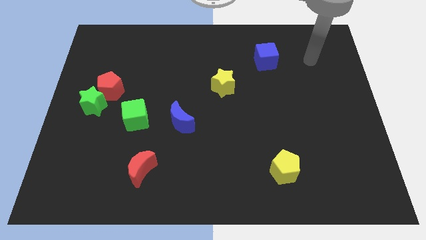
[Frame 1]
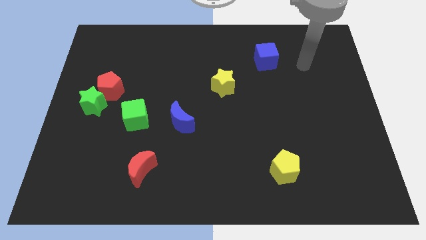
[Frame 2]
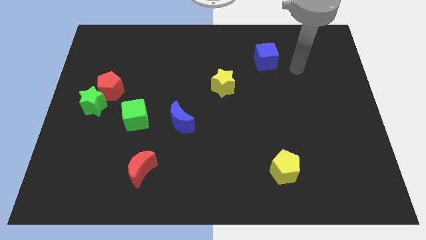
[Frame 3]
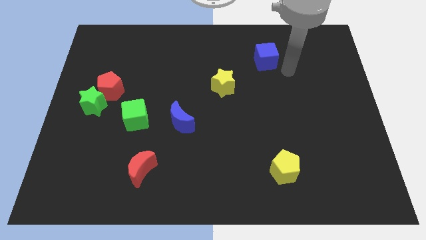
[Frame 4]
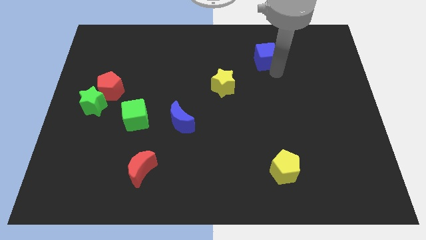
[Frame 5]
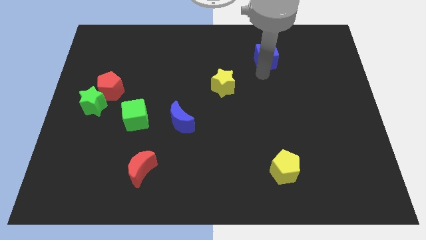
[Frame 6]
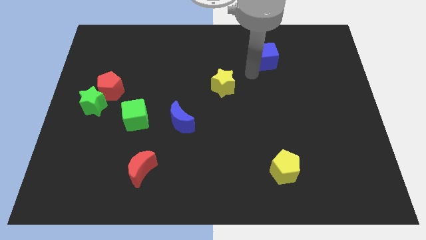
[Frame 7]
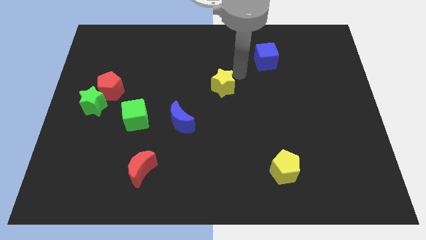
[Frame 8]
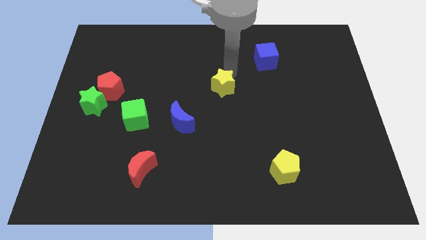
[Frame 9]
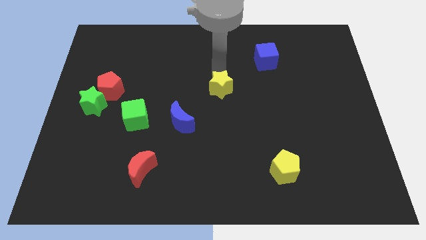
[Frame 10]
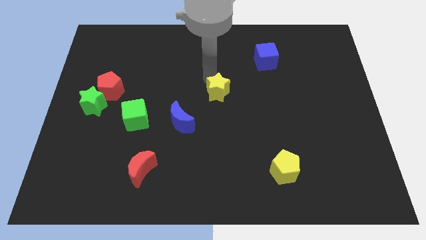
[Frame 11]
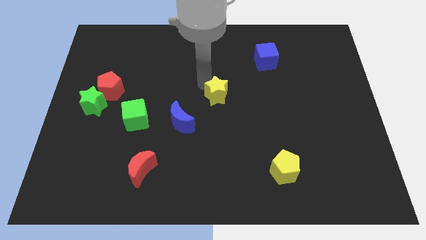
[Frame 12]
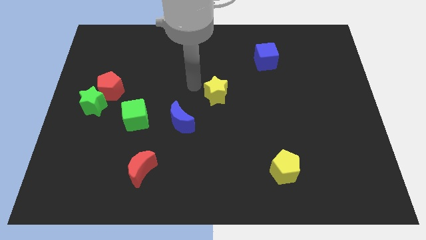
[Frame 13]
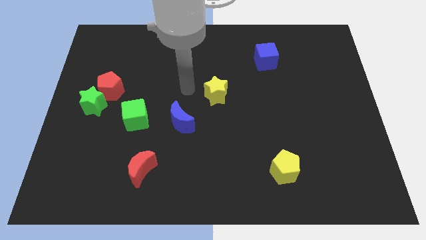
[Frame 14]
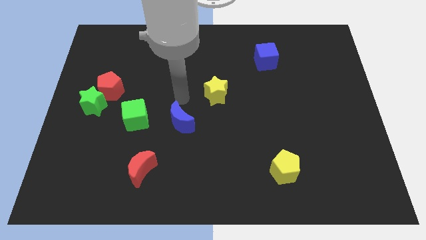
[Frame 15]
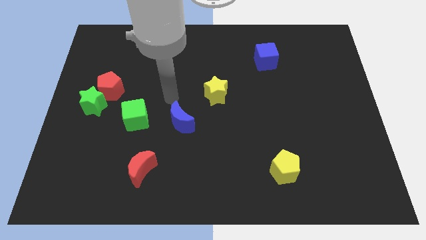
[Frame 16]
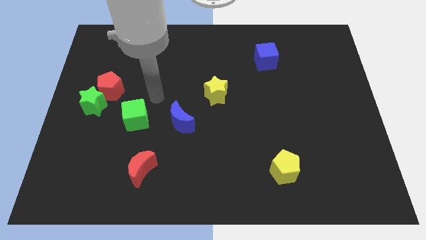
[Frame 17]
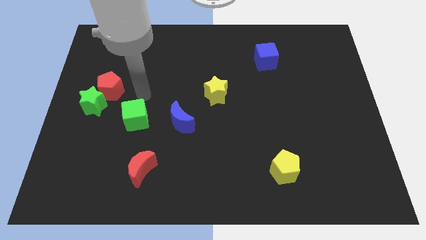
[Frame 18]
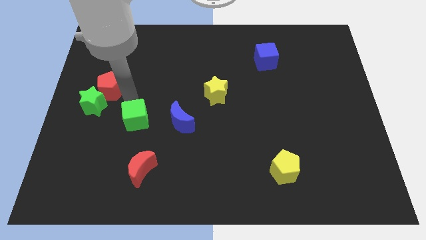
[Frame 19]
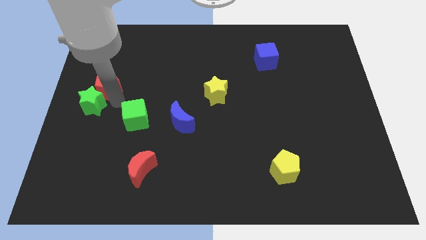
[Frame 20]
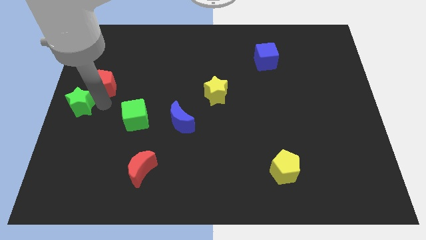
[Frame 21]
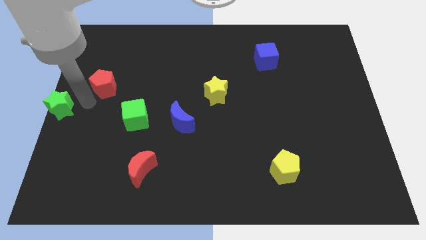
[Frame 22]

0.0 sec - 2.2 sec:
move the red pentagon away from the green star

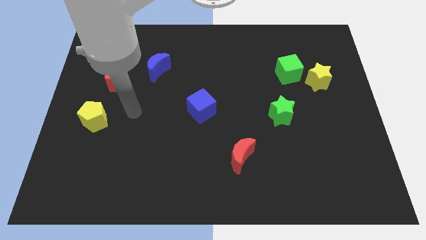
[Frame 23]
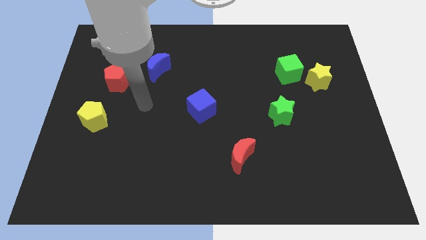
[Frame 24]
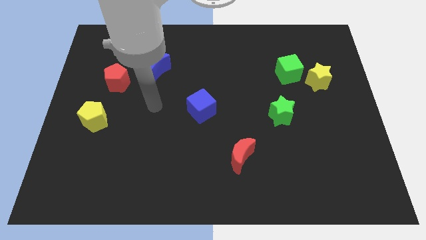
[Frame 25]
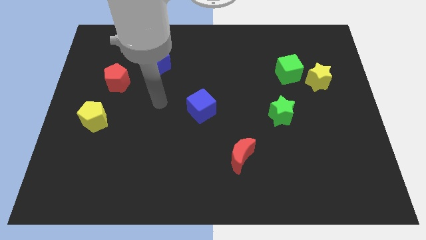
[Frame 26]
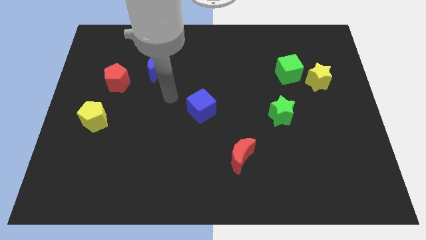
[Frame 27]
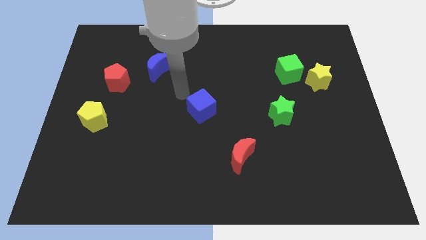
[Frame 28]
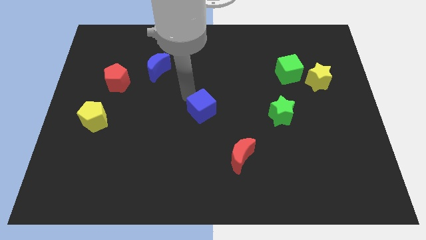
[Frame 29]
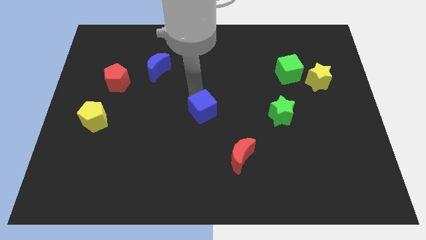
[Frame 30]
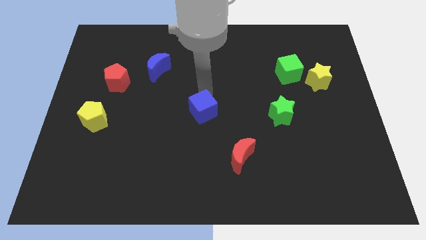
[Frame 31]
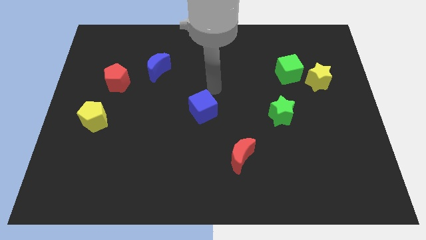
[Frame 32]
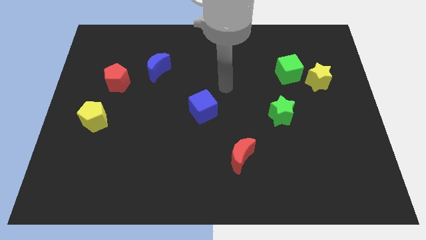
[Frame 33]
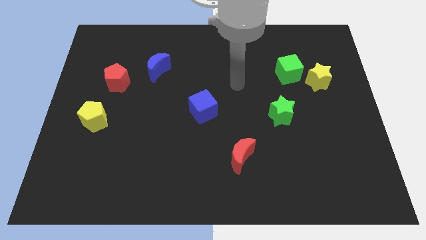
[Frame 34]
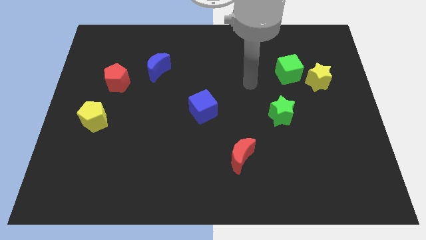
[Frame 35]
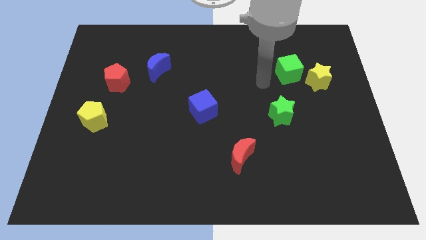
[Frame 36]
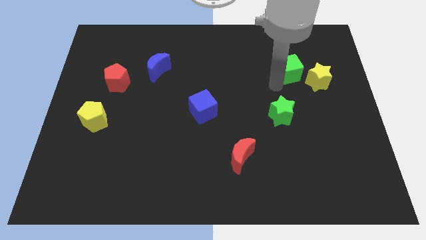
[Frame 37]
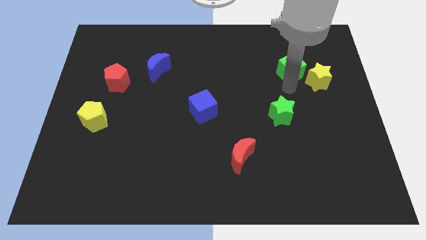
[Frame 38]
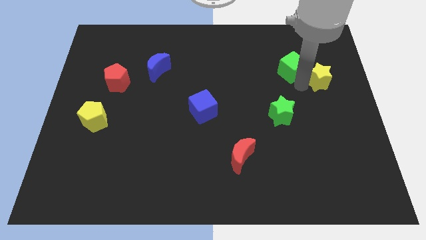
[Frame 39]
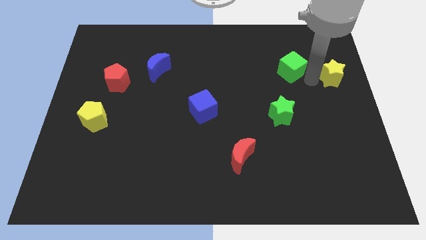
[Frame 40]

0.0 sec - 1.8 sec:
pull the green cube apart from the yellow star

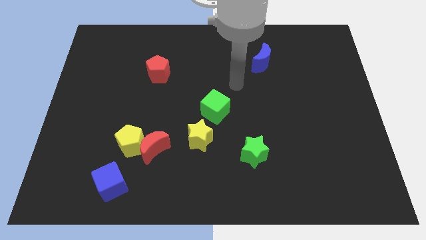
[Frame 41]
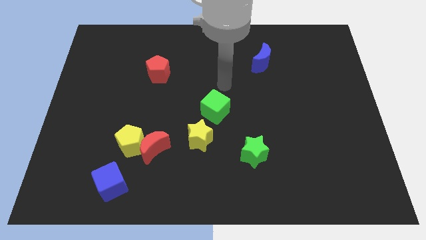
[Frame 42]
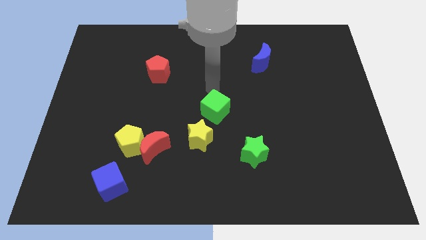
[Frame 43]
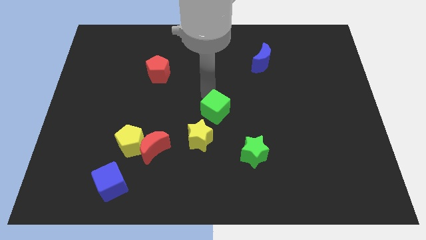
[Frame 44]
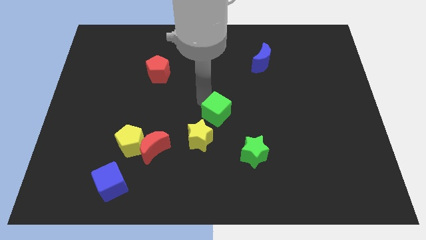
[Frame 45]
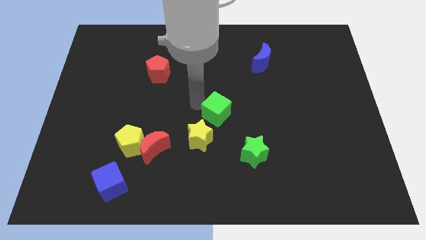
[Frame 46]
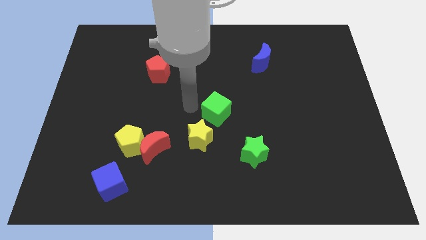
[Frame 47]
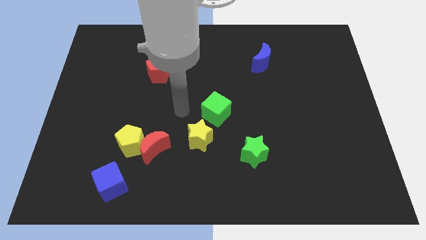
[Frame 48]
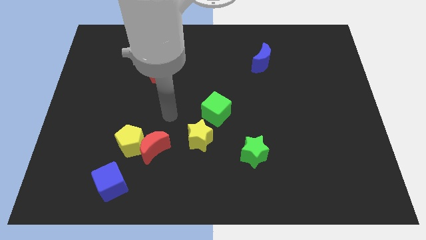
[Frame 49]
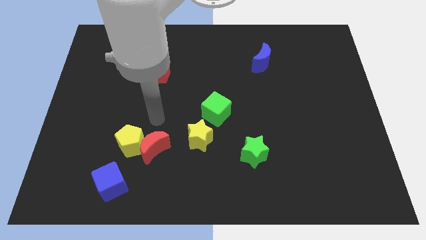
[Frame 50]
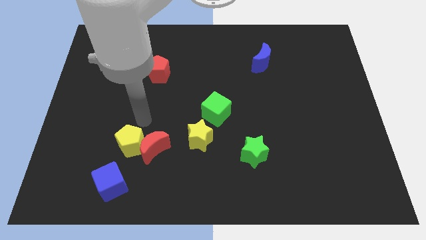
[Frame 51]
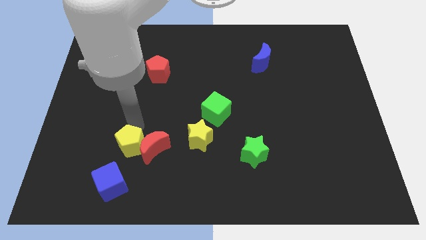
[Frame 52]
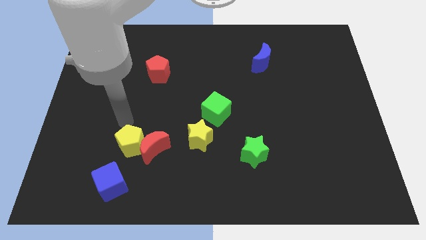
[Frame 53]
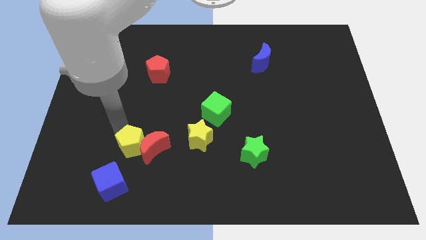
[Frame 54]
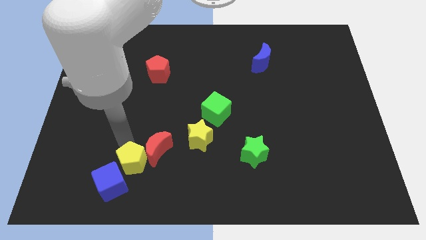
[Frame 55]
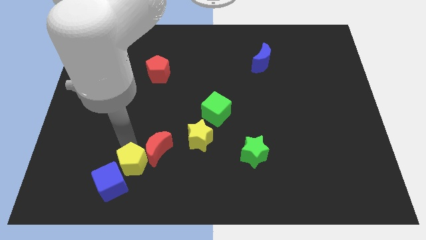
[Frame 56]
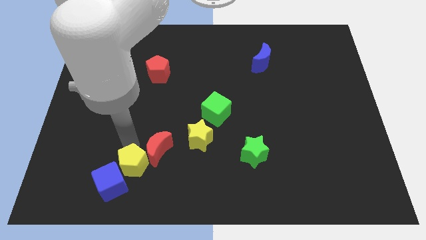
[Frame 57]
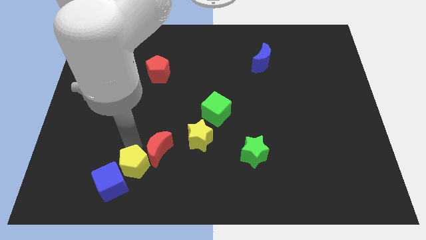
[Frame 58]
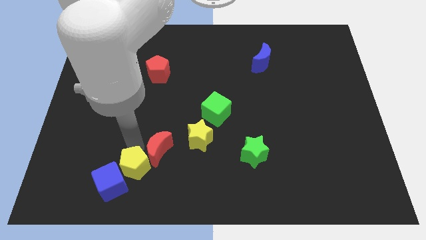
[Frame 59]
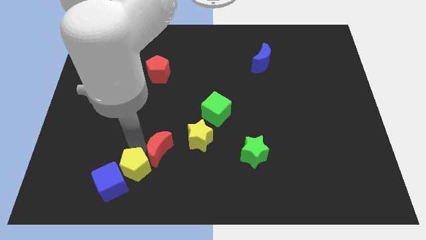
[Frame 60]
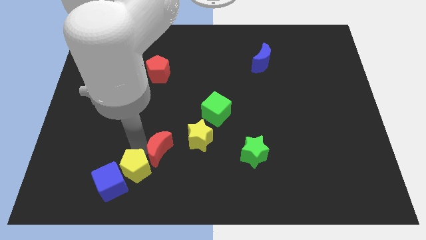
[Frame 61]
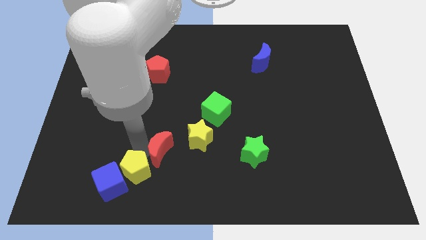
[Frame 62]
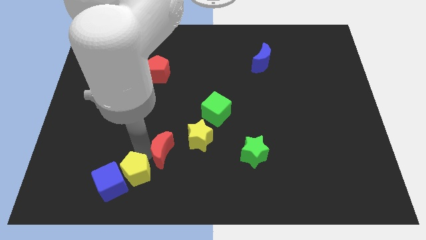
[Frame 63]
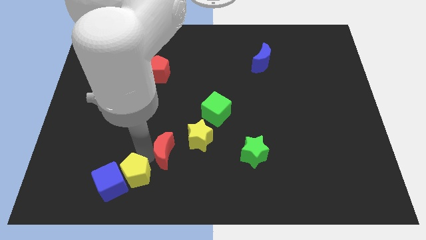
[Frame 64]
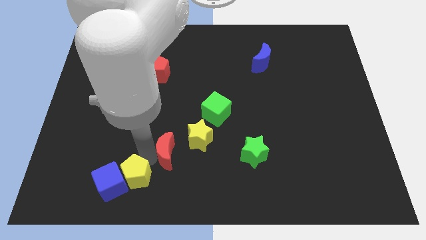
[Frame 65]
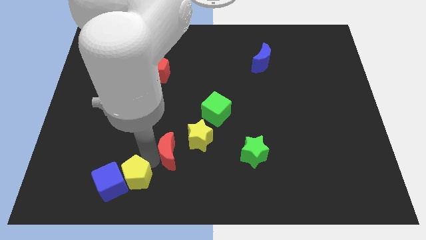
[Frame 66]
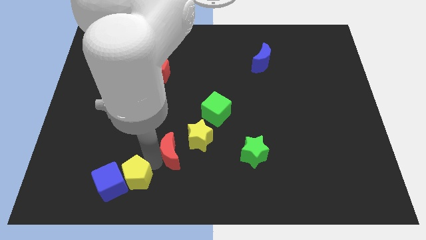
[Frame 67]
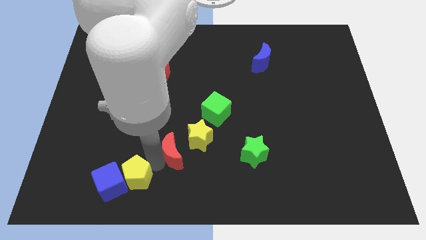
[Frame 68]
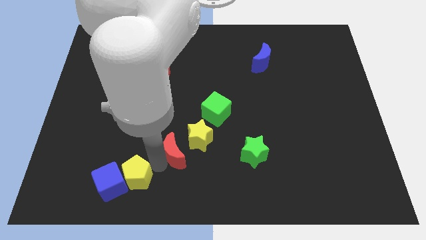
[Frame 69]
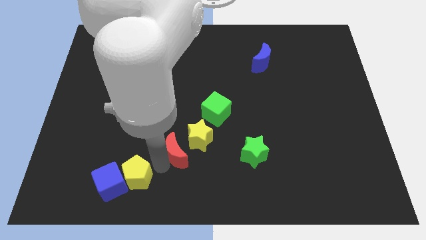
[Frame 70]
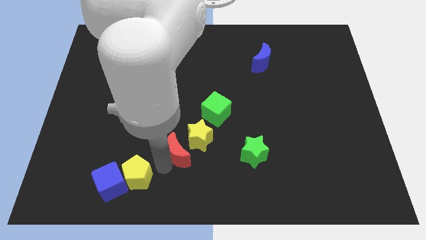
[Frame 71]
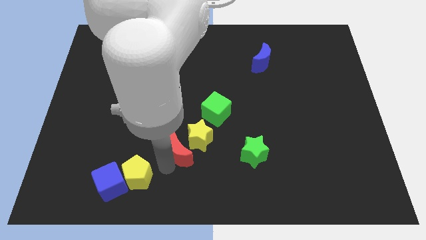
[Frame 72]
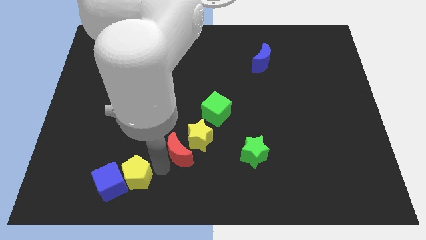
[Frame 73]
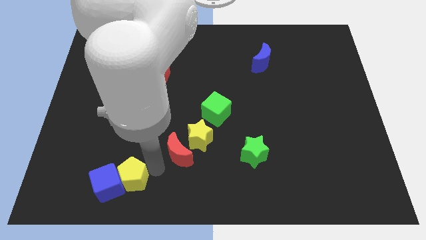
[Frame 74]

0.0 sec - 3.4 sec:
separate the red moon from the yellow pentagon

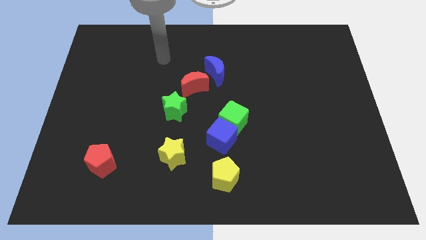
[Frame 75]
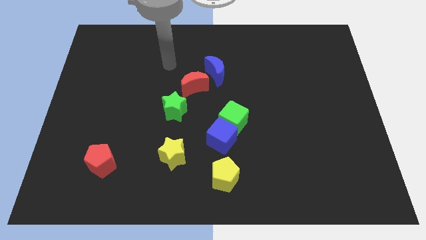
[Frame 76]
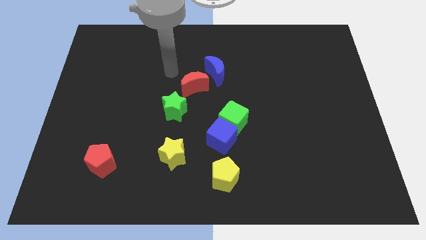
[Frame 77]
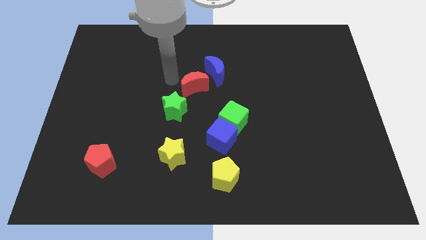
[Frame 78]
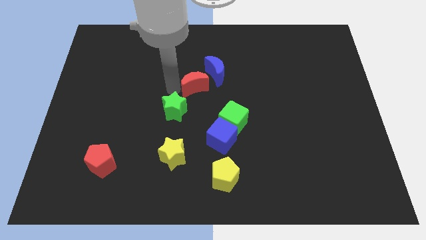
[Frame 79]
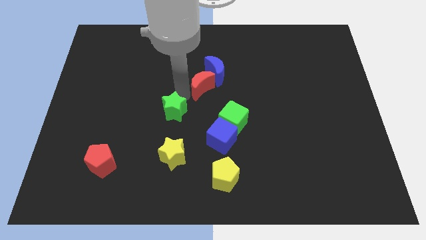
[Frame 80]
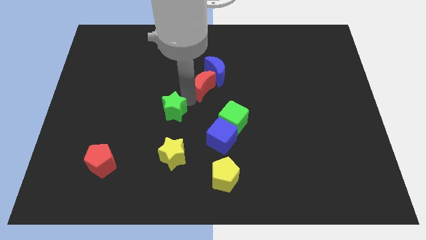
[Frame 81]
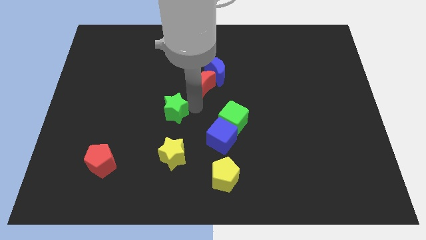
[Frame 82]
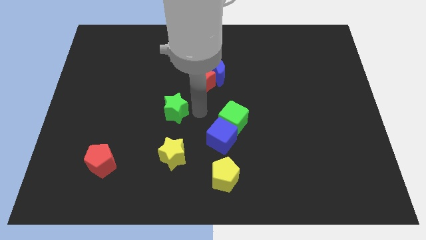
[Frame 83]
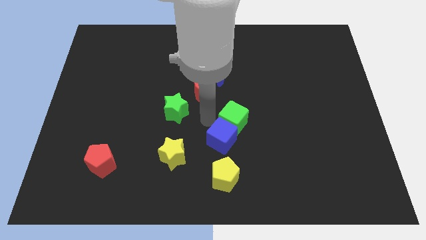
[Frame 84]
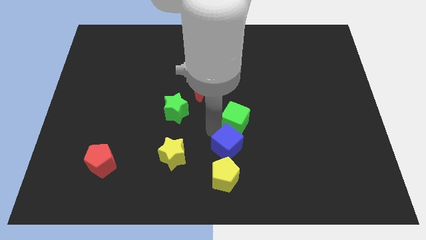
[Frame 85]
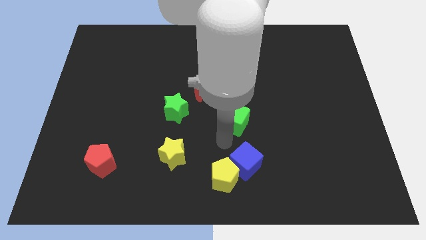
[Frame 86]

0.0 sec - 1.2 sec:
move the green cube away from the blue cube

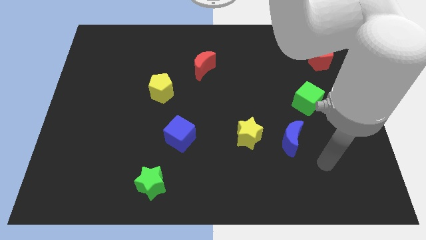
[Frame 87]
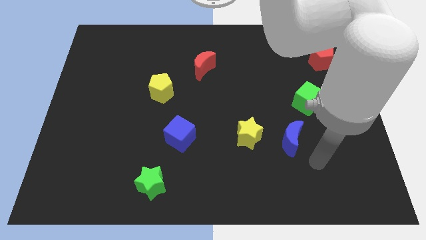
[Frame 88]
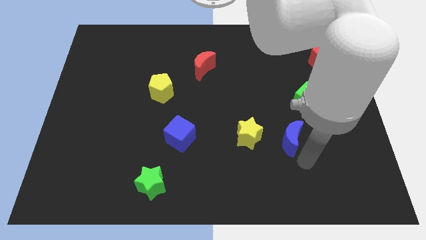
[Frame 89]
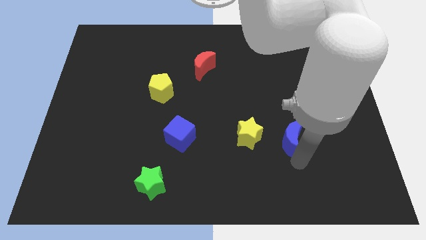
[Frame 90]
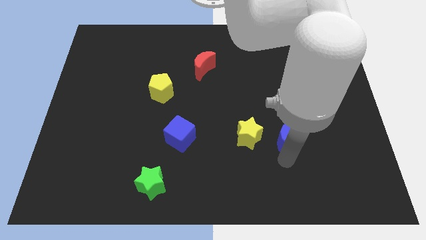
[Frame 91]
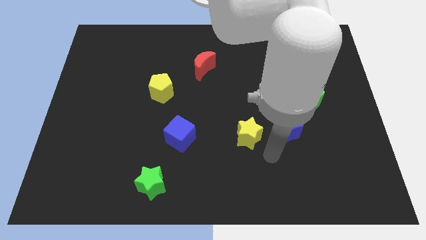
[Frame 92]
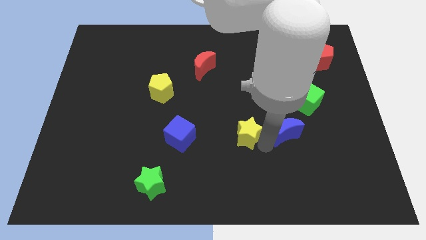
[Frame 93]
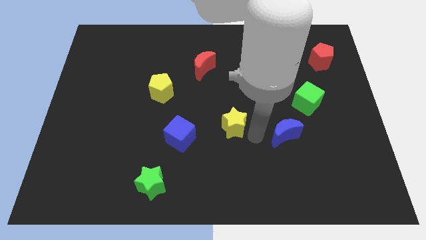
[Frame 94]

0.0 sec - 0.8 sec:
pull the blue moon apart from the yellow star
